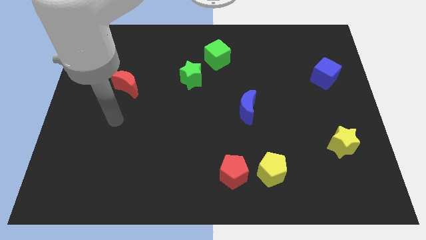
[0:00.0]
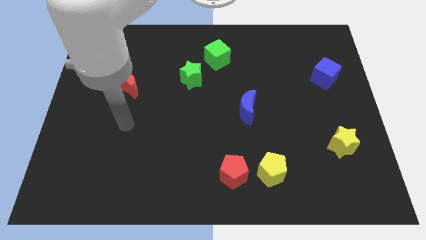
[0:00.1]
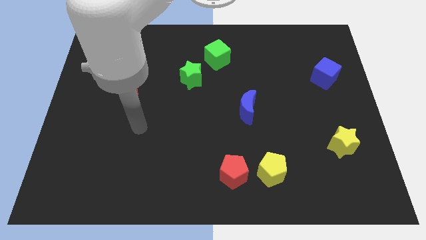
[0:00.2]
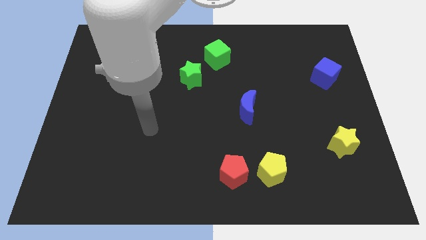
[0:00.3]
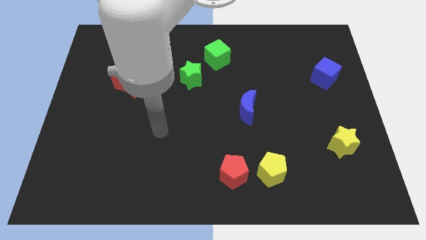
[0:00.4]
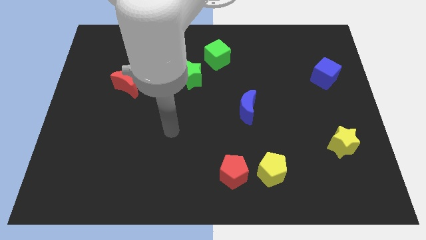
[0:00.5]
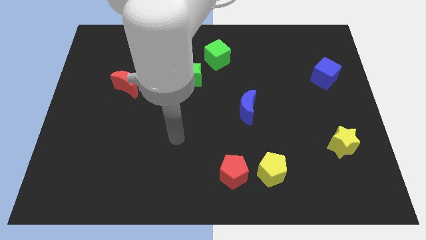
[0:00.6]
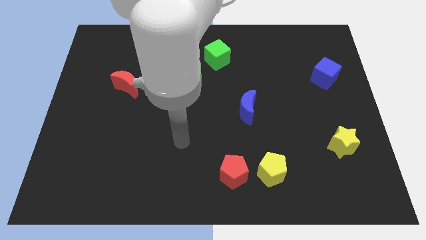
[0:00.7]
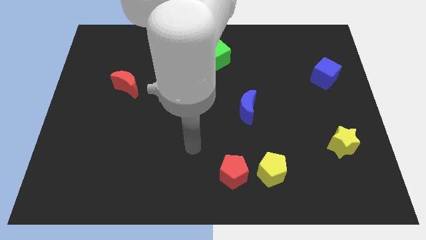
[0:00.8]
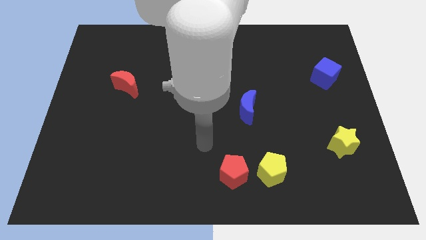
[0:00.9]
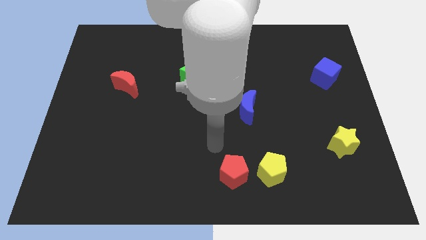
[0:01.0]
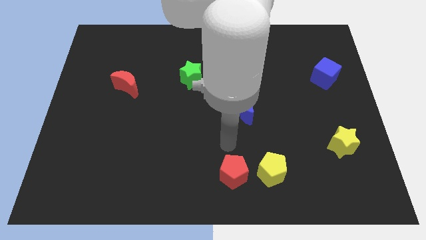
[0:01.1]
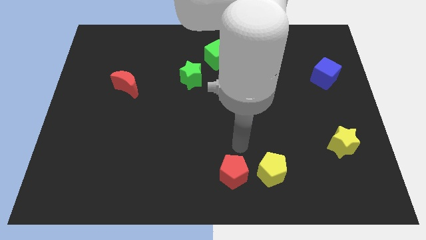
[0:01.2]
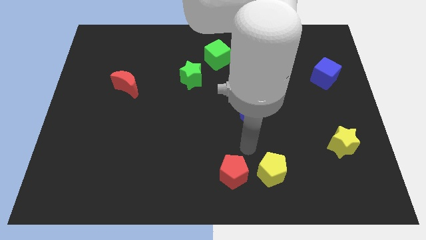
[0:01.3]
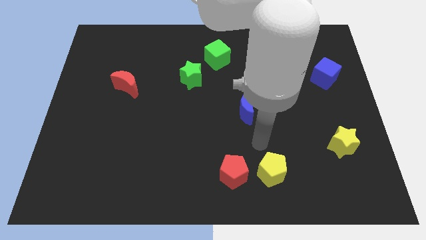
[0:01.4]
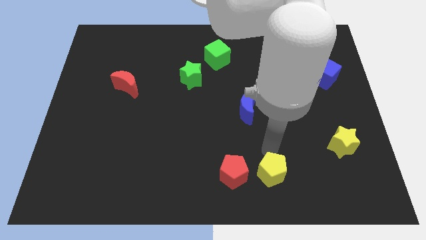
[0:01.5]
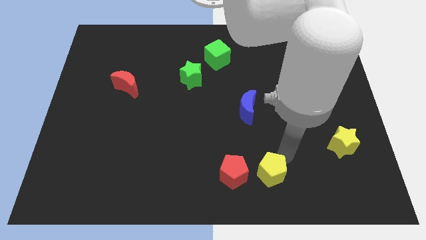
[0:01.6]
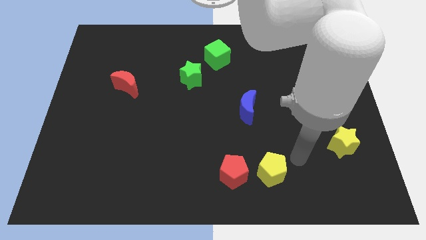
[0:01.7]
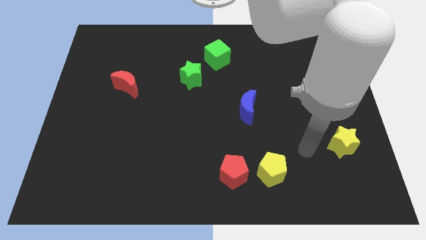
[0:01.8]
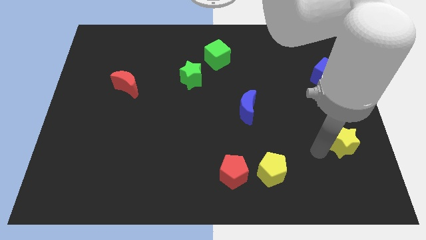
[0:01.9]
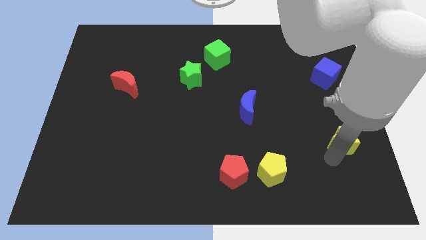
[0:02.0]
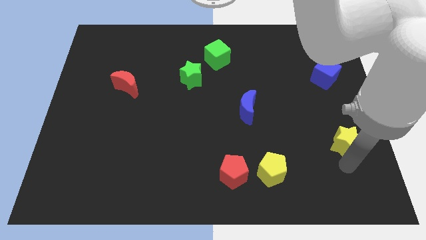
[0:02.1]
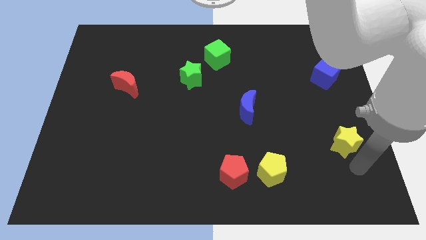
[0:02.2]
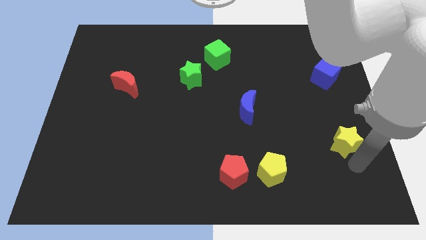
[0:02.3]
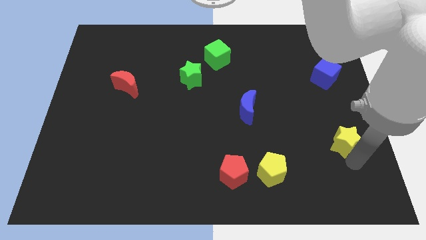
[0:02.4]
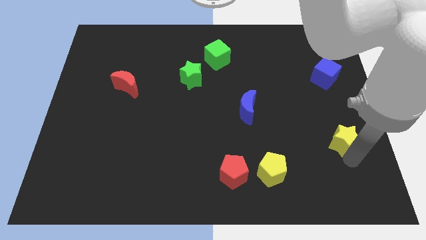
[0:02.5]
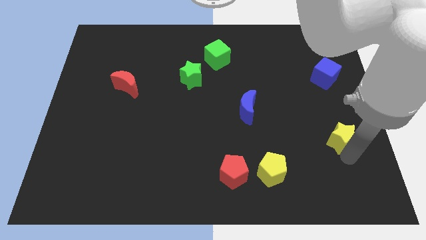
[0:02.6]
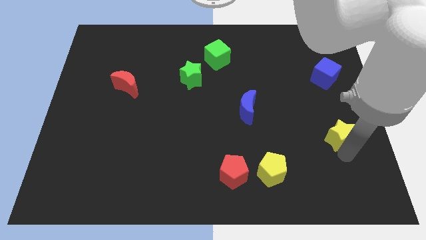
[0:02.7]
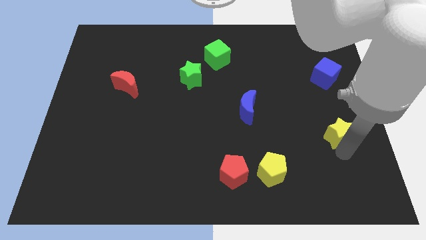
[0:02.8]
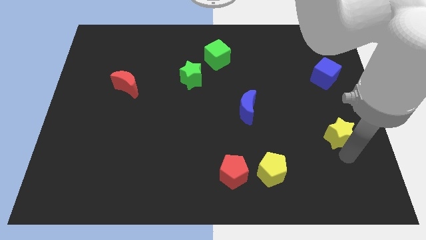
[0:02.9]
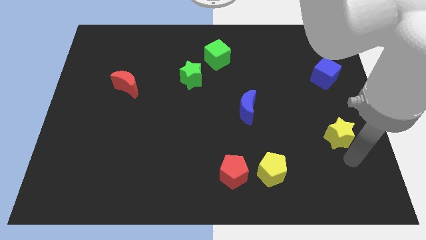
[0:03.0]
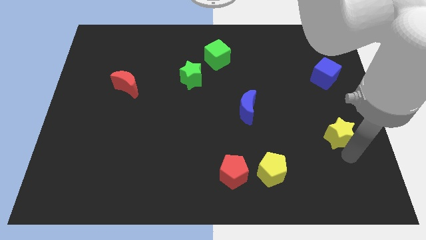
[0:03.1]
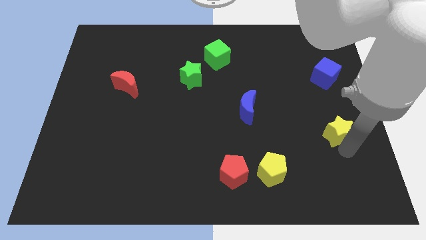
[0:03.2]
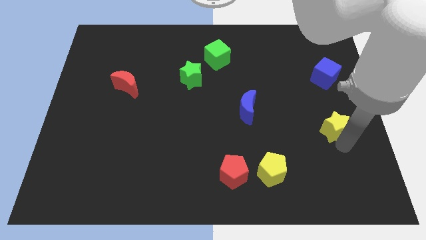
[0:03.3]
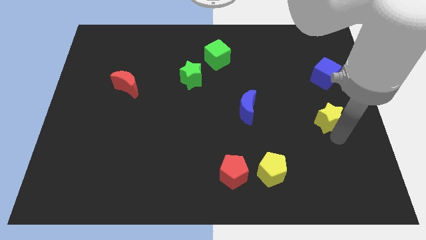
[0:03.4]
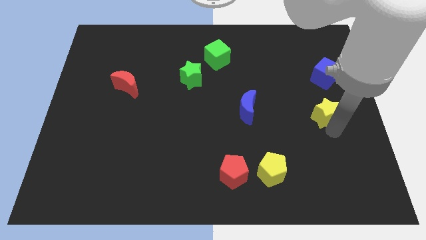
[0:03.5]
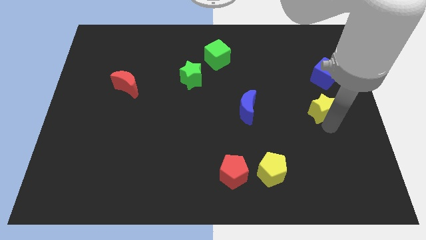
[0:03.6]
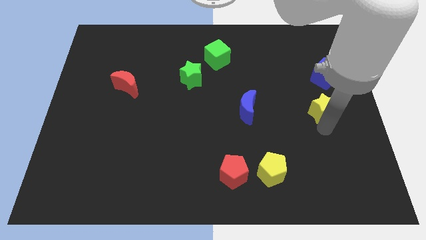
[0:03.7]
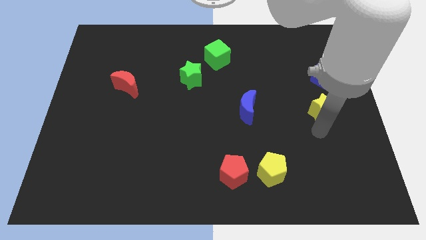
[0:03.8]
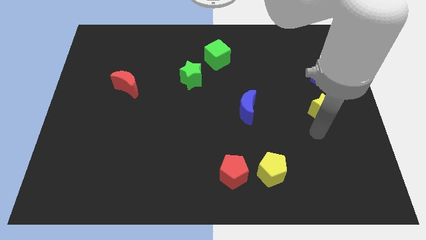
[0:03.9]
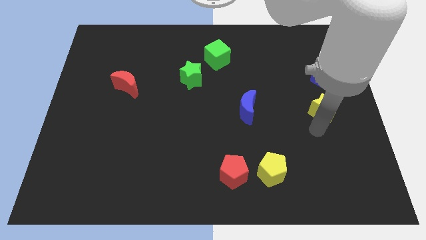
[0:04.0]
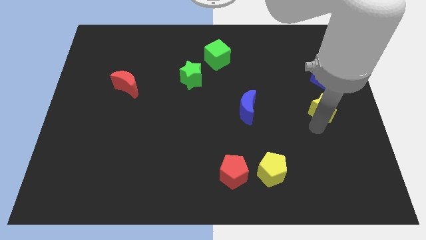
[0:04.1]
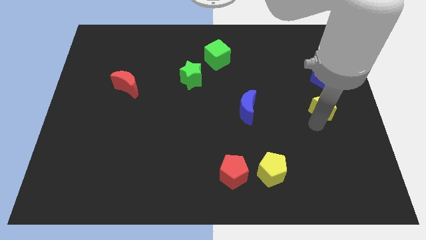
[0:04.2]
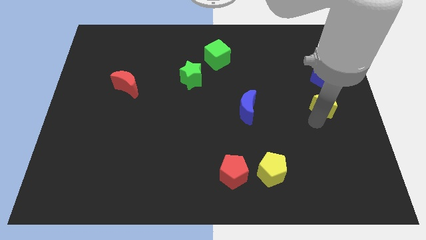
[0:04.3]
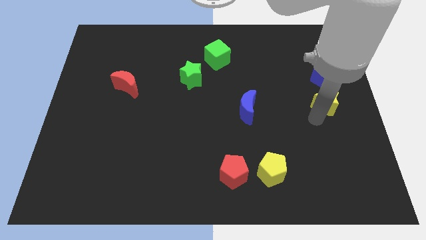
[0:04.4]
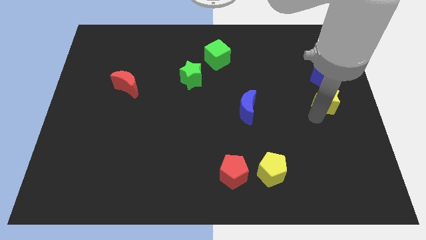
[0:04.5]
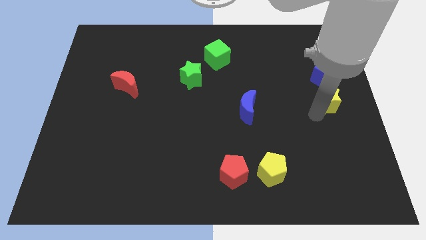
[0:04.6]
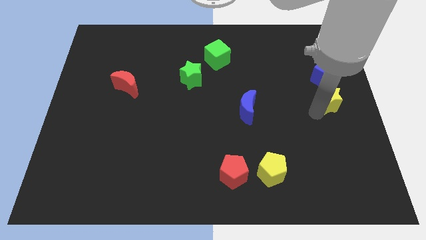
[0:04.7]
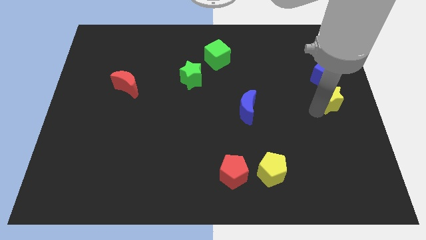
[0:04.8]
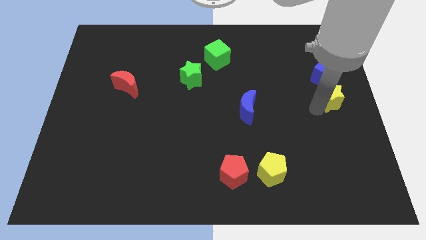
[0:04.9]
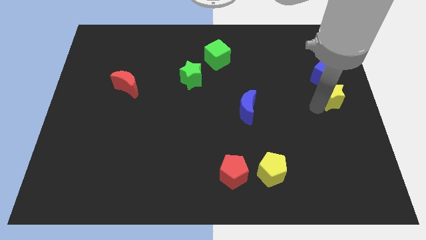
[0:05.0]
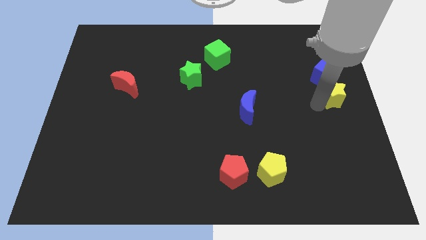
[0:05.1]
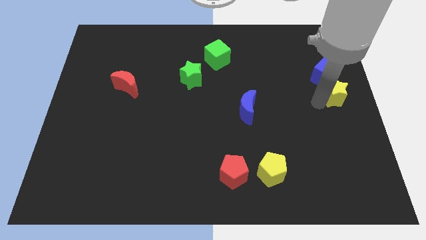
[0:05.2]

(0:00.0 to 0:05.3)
push the yellow star to the blue cube

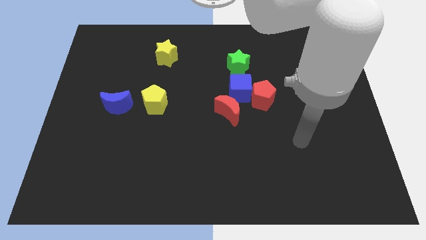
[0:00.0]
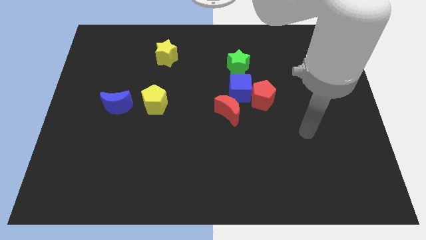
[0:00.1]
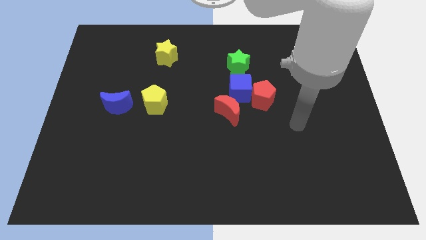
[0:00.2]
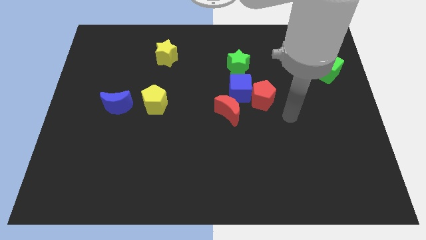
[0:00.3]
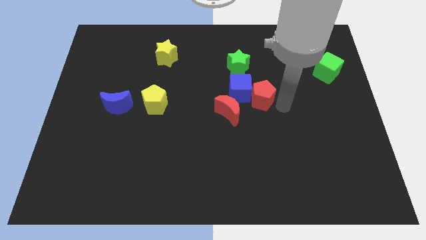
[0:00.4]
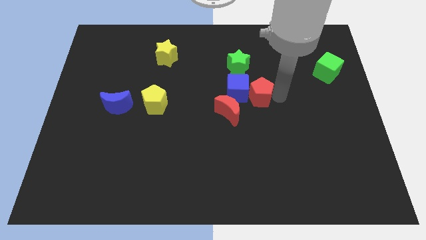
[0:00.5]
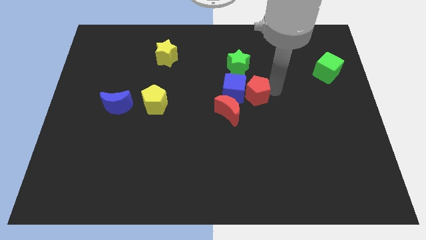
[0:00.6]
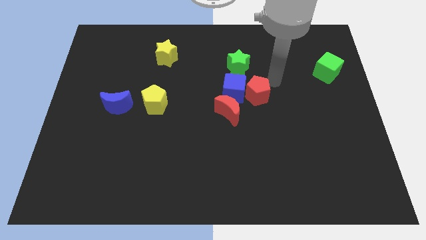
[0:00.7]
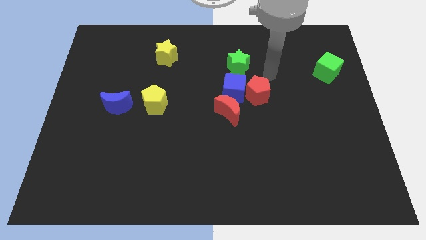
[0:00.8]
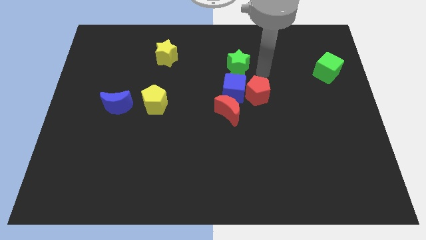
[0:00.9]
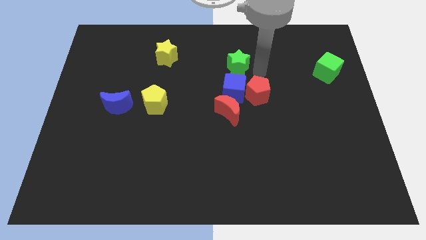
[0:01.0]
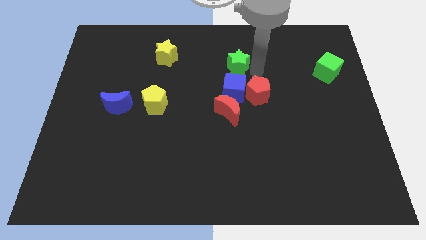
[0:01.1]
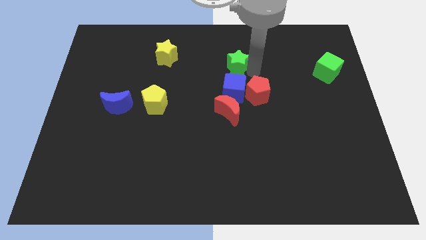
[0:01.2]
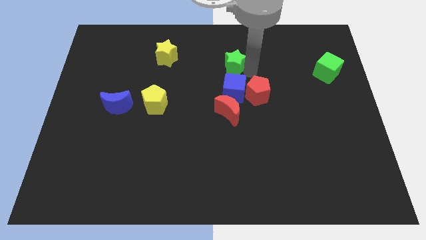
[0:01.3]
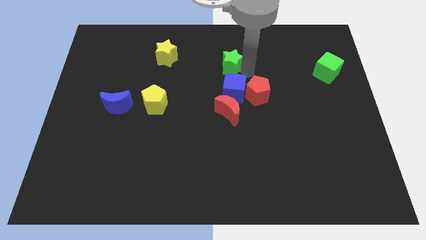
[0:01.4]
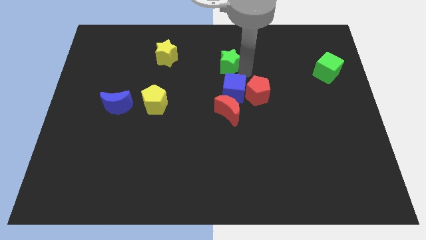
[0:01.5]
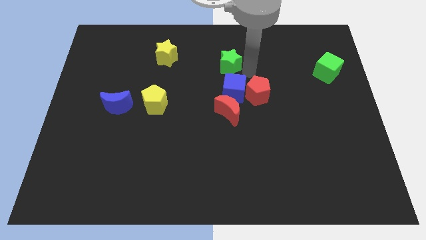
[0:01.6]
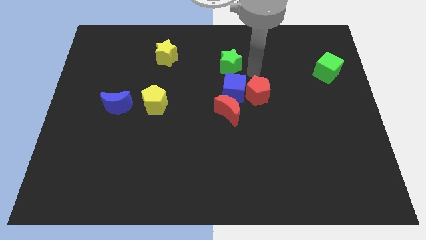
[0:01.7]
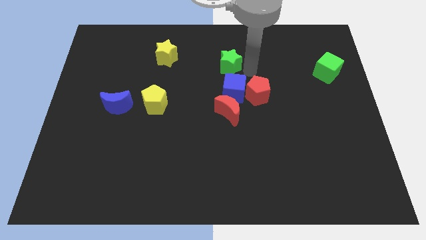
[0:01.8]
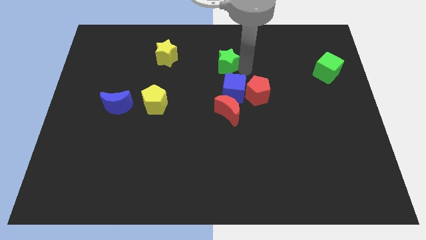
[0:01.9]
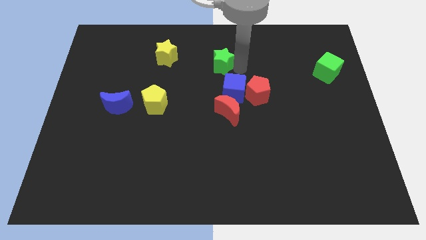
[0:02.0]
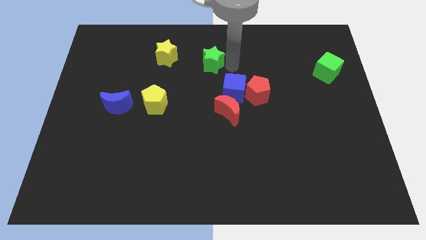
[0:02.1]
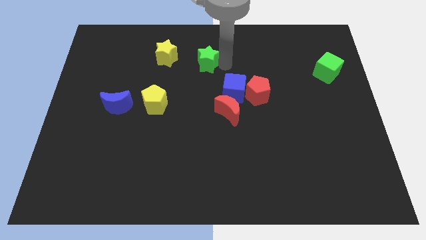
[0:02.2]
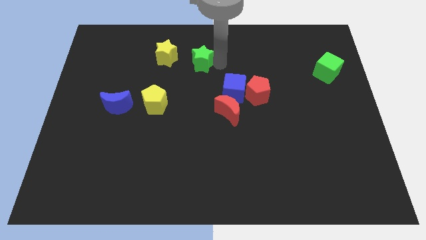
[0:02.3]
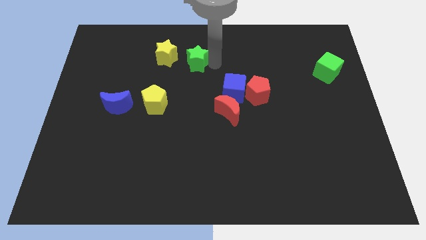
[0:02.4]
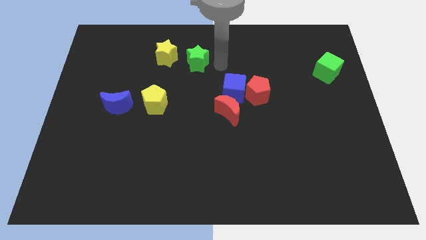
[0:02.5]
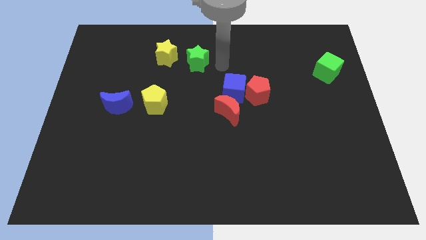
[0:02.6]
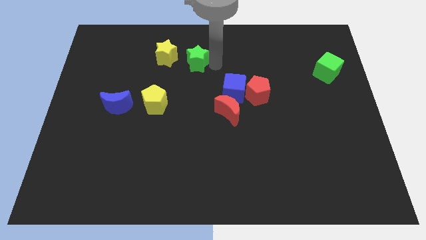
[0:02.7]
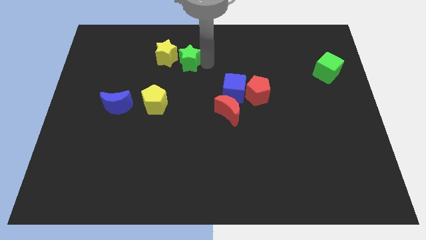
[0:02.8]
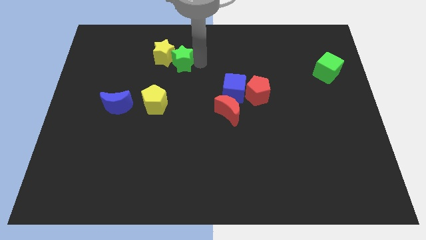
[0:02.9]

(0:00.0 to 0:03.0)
push the green star next to the yellow star
